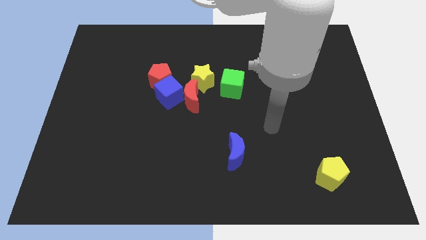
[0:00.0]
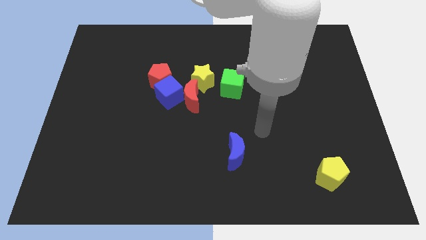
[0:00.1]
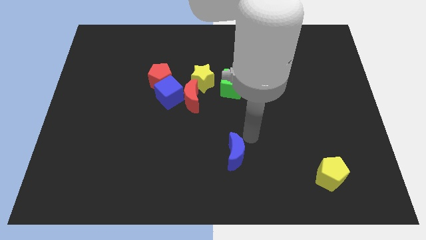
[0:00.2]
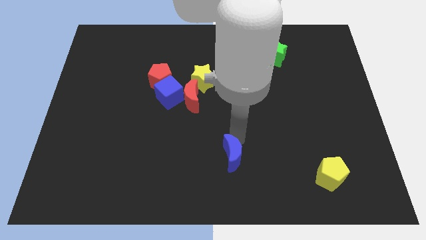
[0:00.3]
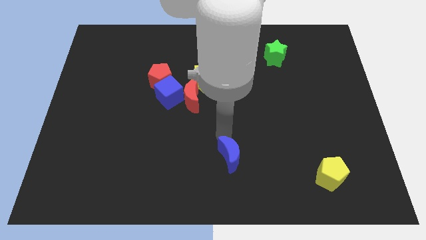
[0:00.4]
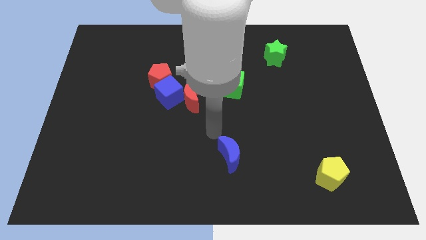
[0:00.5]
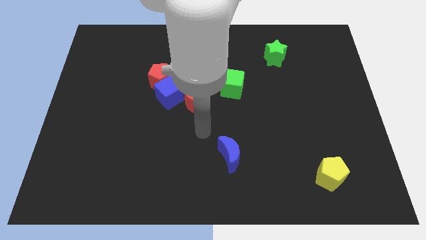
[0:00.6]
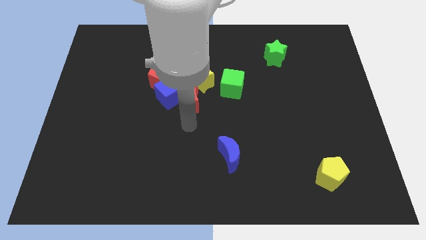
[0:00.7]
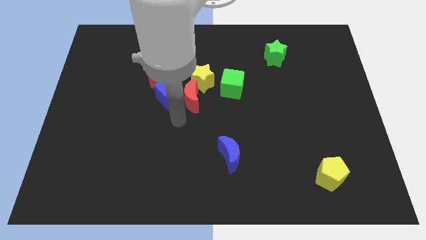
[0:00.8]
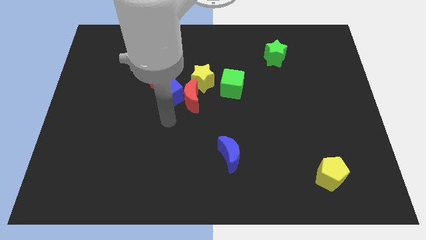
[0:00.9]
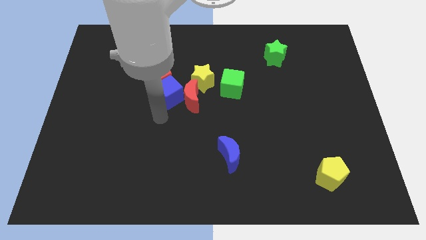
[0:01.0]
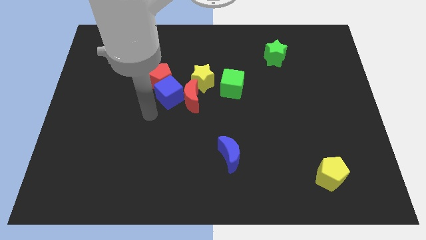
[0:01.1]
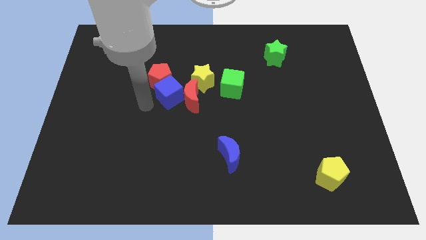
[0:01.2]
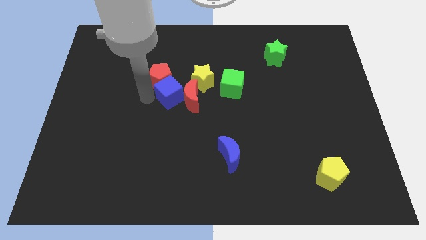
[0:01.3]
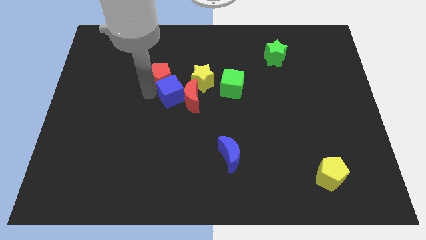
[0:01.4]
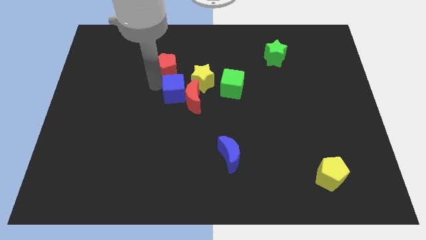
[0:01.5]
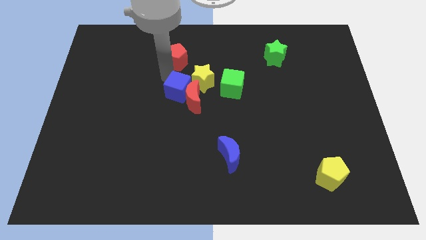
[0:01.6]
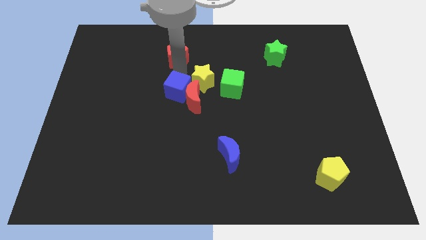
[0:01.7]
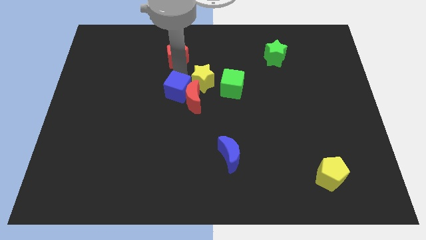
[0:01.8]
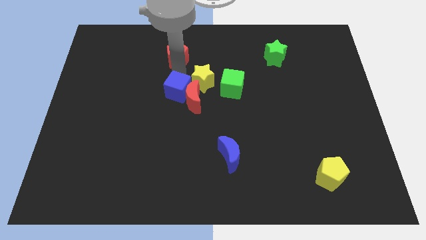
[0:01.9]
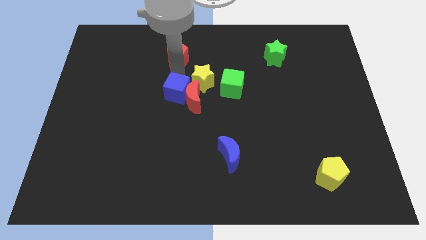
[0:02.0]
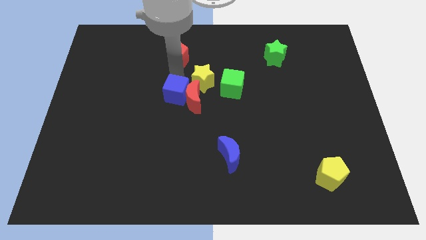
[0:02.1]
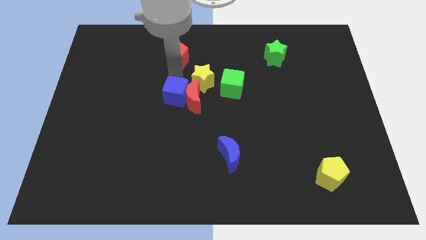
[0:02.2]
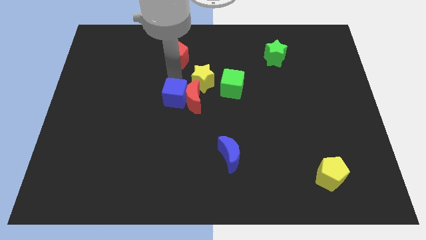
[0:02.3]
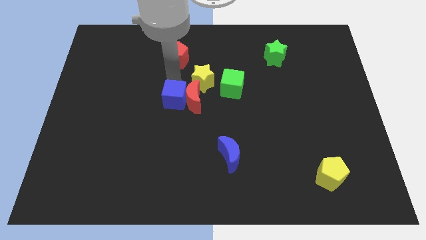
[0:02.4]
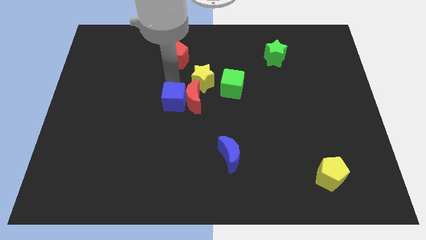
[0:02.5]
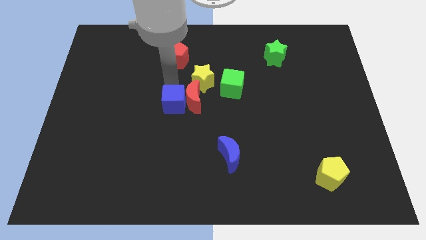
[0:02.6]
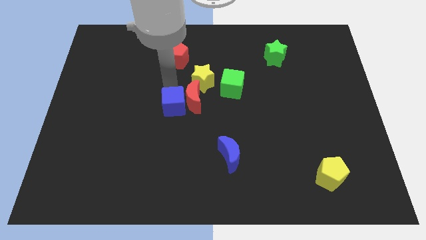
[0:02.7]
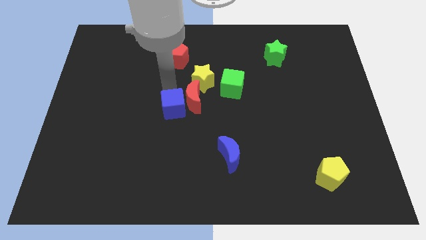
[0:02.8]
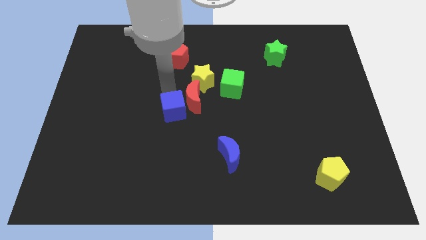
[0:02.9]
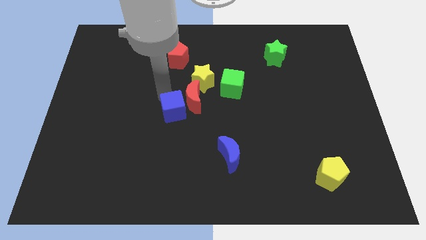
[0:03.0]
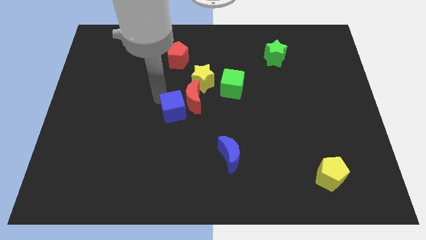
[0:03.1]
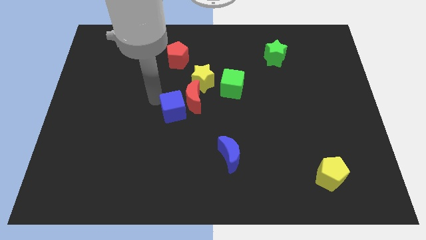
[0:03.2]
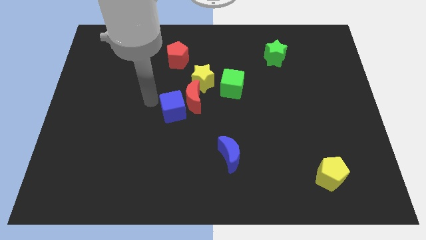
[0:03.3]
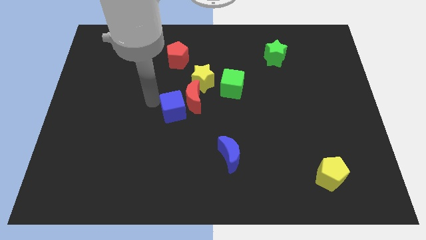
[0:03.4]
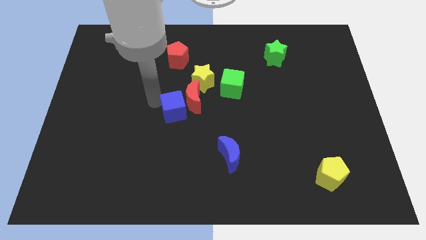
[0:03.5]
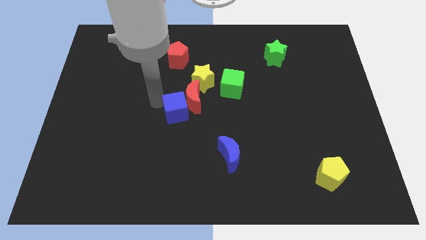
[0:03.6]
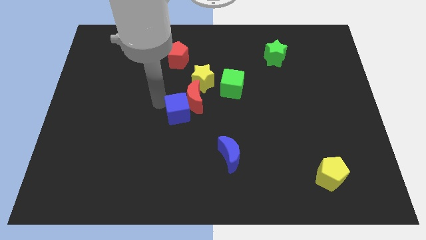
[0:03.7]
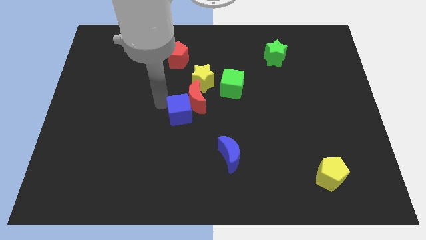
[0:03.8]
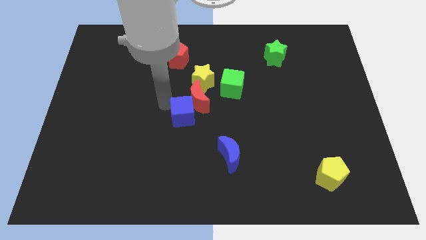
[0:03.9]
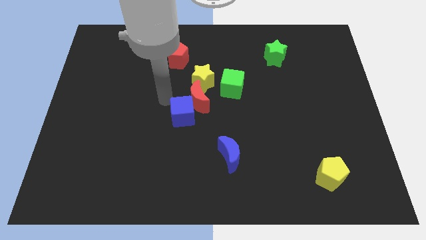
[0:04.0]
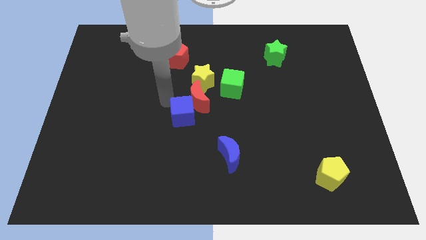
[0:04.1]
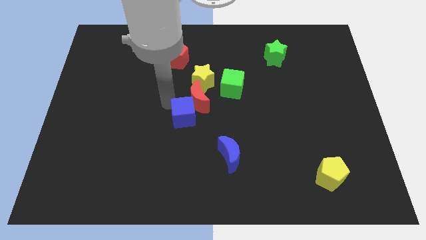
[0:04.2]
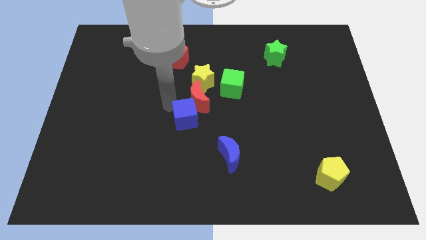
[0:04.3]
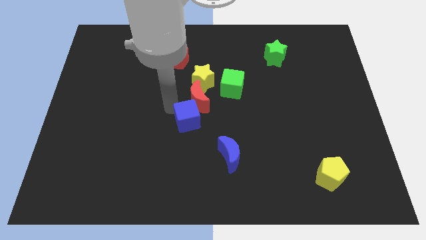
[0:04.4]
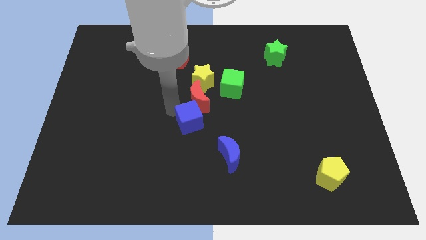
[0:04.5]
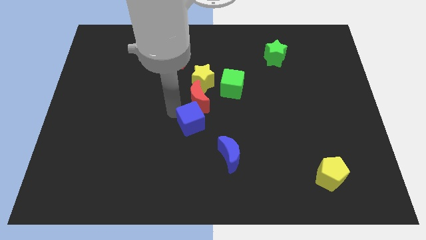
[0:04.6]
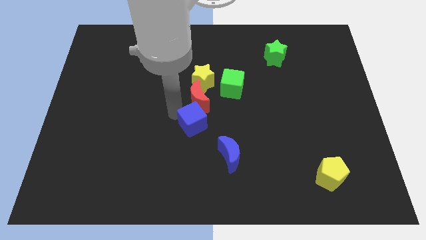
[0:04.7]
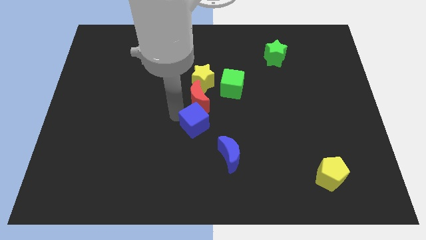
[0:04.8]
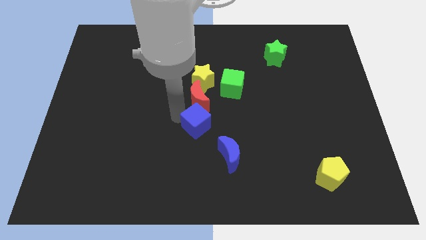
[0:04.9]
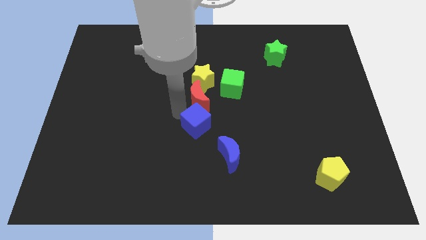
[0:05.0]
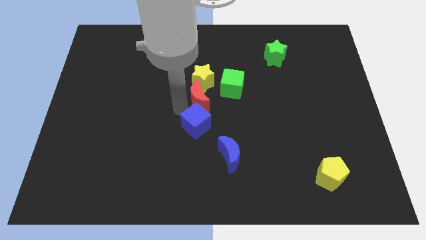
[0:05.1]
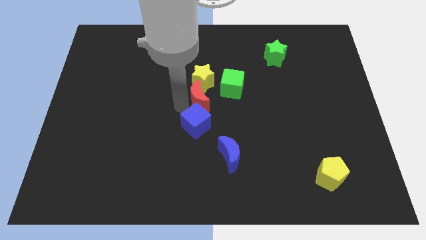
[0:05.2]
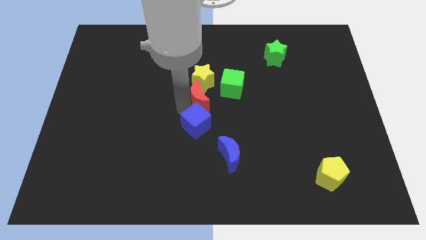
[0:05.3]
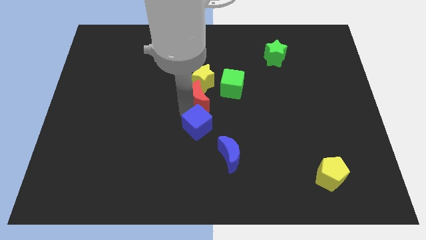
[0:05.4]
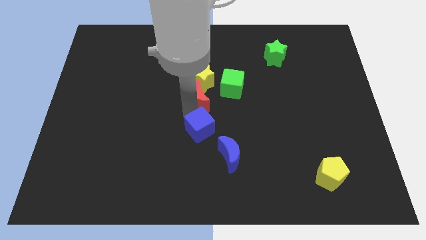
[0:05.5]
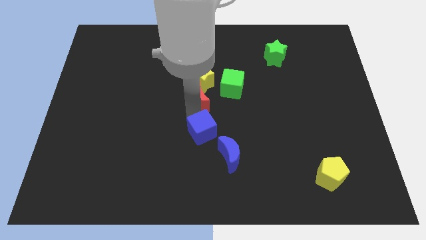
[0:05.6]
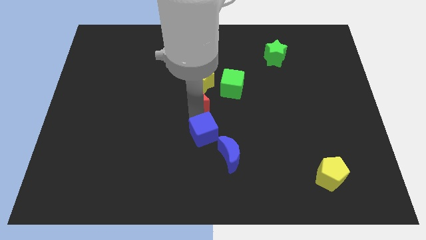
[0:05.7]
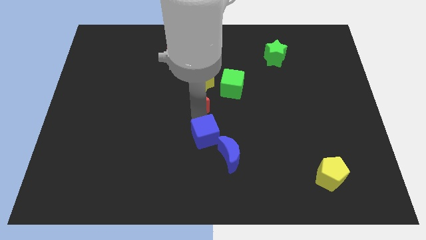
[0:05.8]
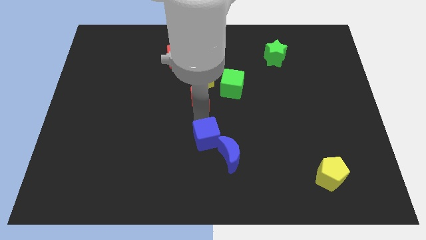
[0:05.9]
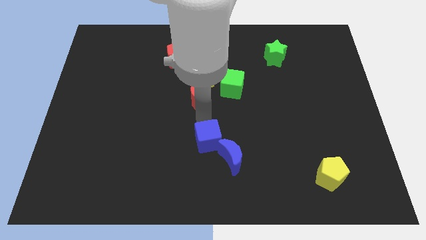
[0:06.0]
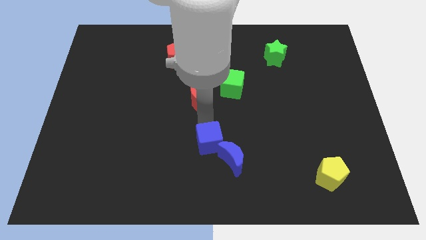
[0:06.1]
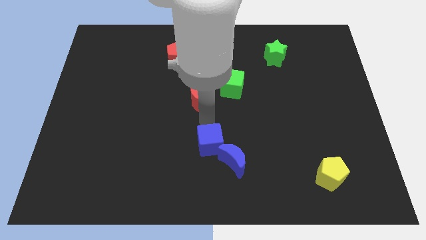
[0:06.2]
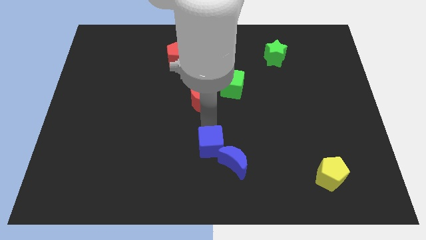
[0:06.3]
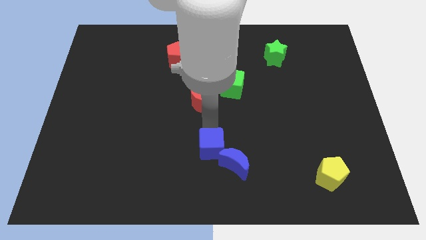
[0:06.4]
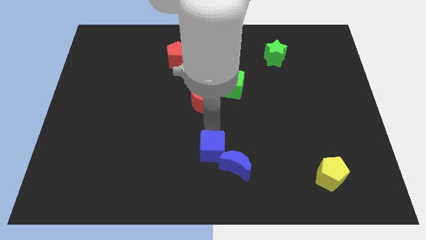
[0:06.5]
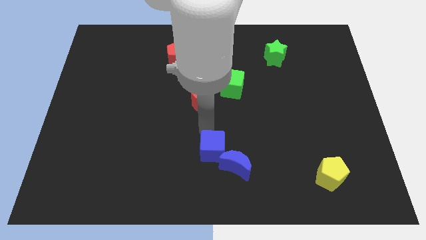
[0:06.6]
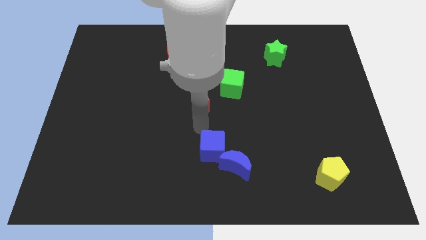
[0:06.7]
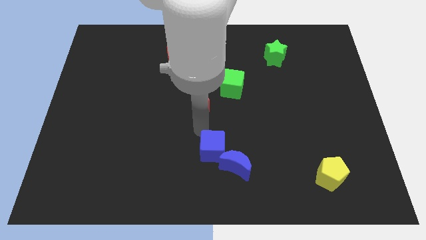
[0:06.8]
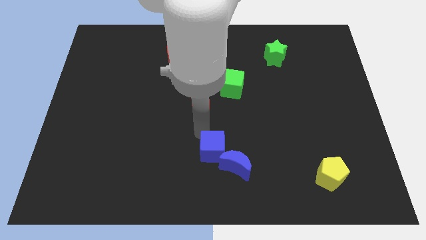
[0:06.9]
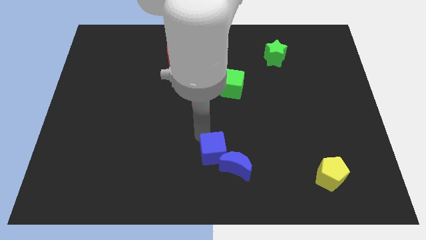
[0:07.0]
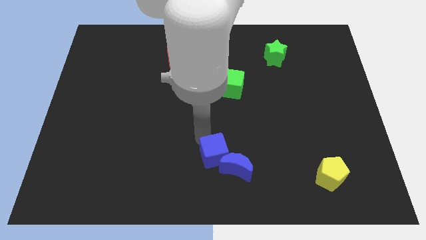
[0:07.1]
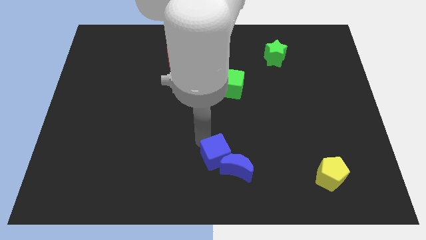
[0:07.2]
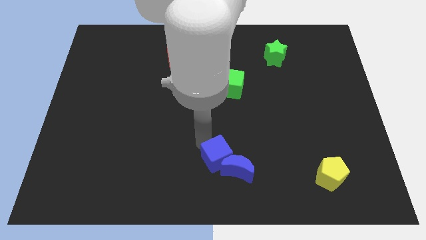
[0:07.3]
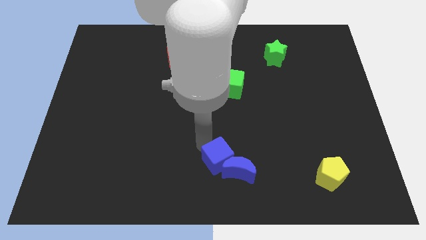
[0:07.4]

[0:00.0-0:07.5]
move the blue cube downwards and to the right diagonally

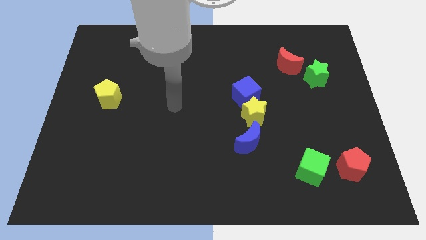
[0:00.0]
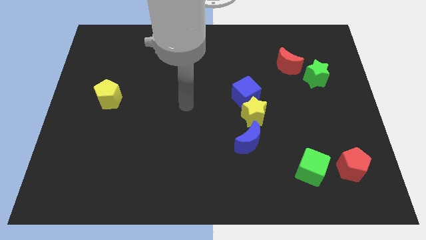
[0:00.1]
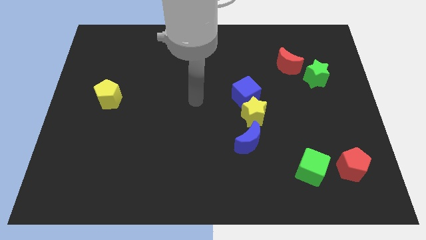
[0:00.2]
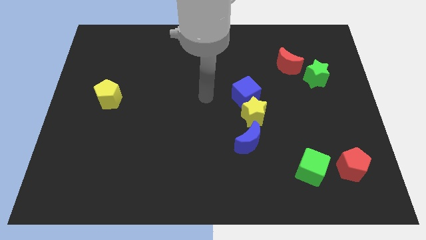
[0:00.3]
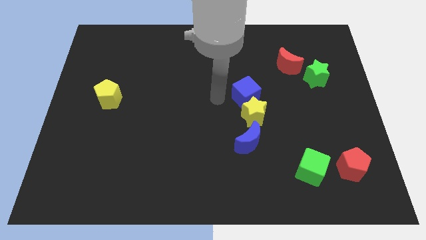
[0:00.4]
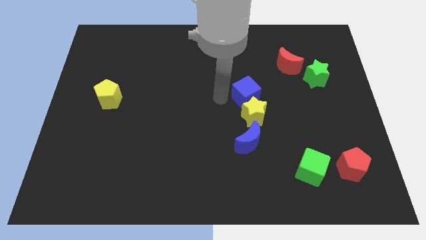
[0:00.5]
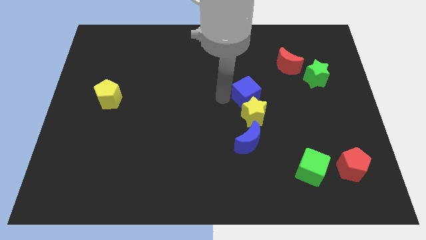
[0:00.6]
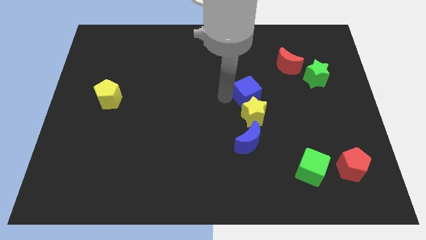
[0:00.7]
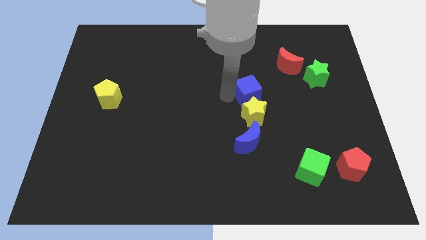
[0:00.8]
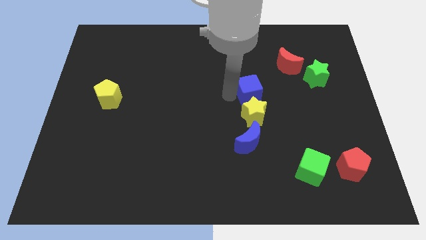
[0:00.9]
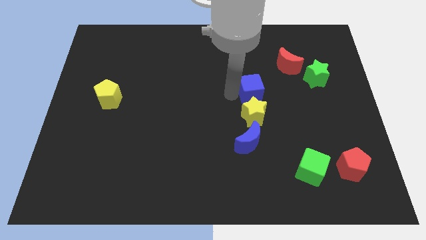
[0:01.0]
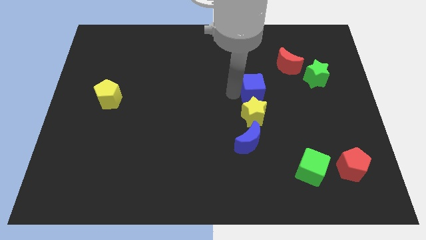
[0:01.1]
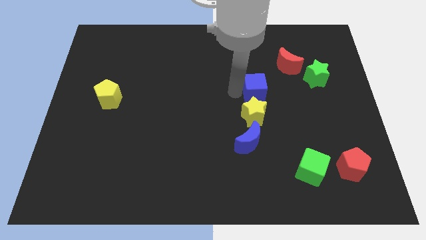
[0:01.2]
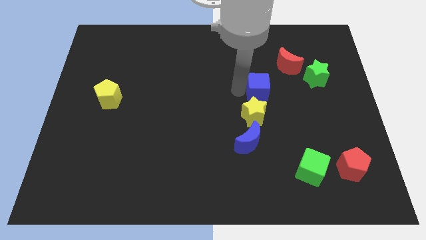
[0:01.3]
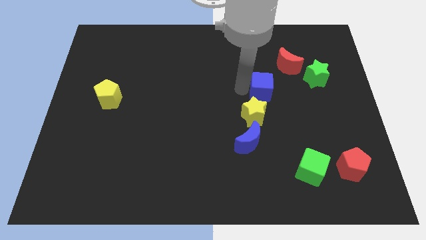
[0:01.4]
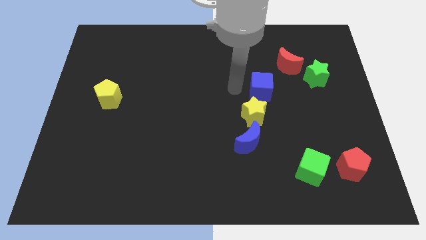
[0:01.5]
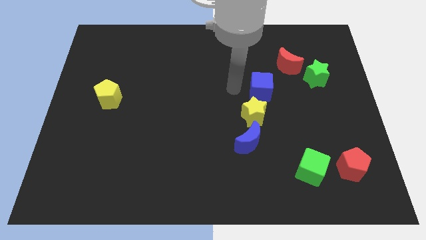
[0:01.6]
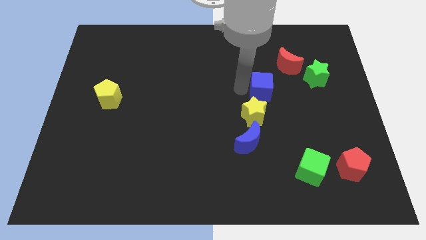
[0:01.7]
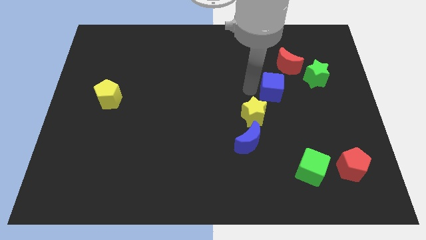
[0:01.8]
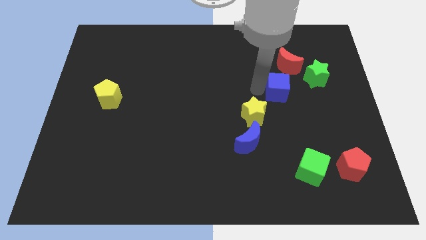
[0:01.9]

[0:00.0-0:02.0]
slide the blue cube right a little bit
